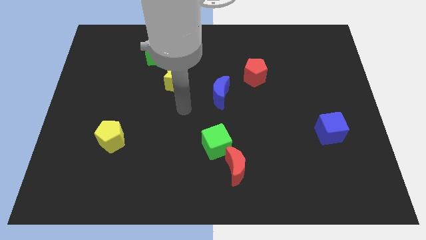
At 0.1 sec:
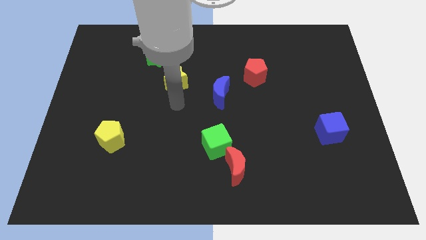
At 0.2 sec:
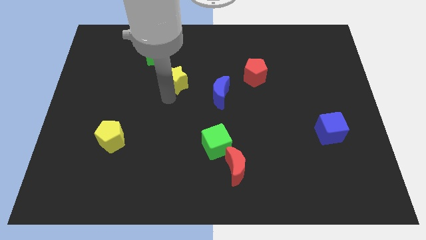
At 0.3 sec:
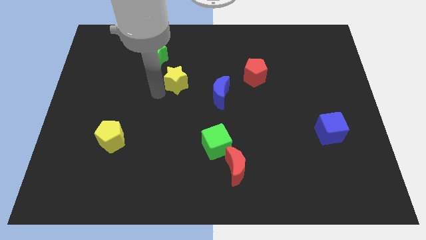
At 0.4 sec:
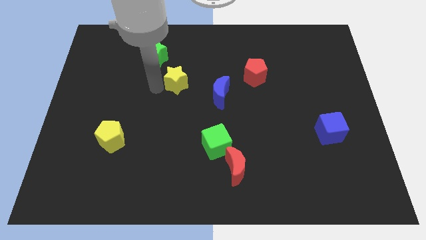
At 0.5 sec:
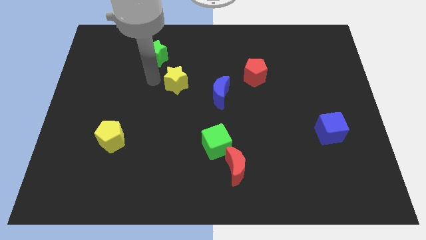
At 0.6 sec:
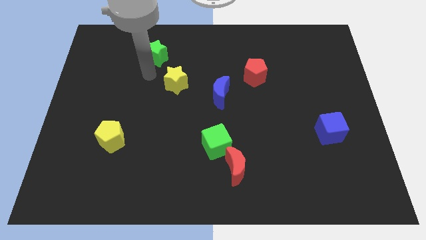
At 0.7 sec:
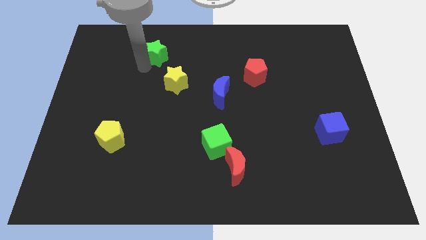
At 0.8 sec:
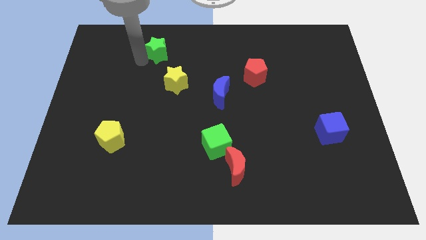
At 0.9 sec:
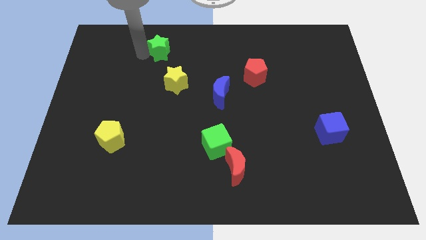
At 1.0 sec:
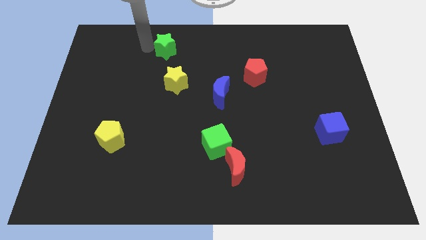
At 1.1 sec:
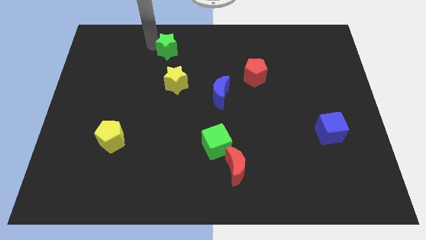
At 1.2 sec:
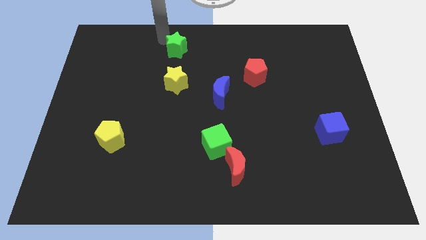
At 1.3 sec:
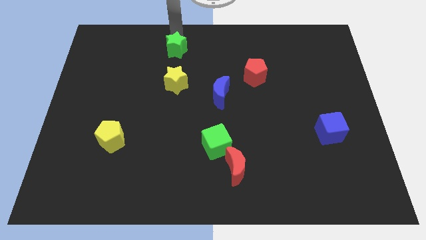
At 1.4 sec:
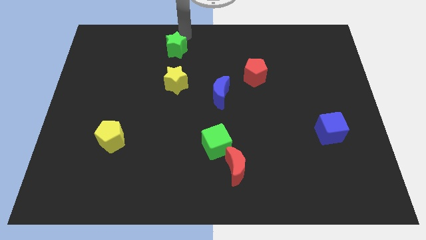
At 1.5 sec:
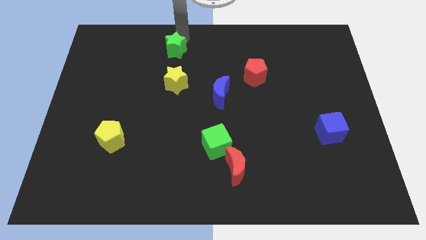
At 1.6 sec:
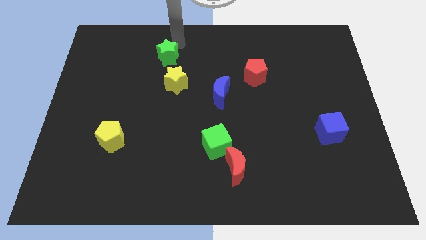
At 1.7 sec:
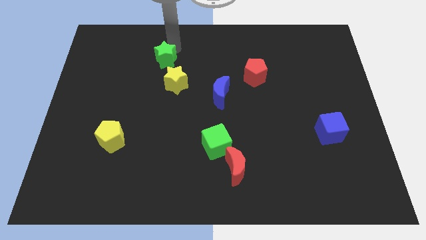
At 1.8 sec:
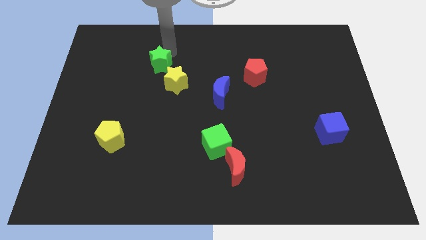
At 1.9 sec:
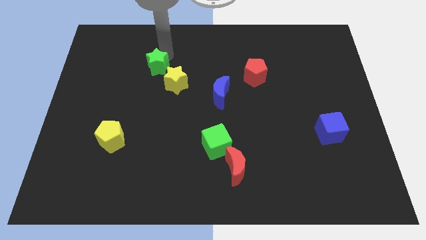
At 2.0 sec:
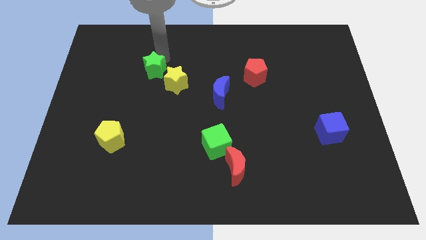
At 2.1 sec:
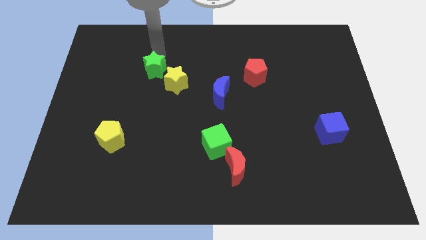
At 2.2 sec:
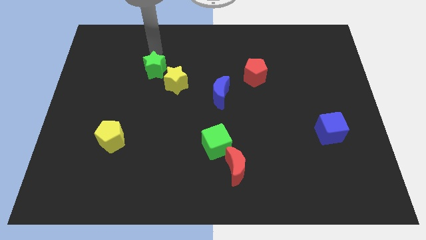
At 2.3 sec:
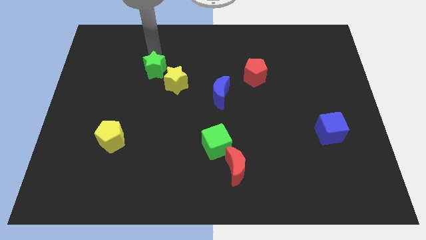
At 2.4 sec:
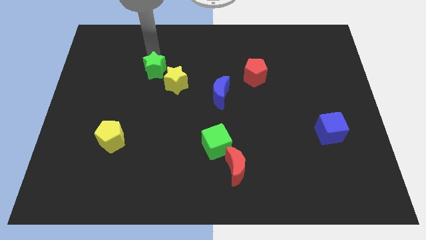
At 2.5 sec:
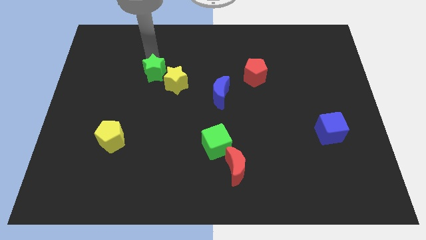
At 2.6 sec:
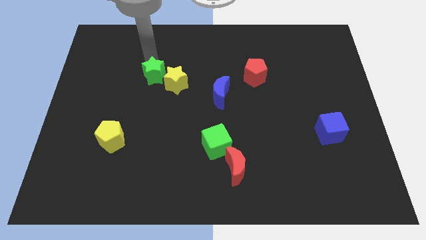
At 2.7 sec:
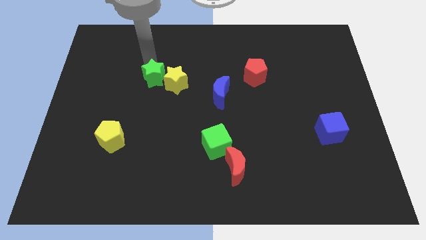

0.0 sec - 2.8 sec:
slightly push the green star downwards

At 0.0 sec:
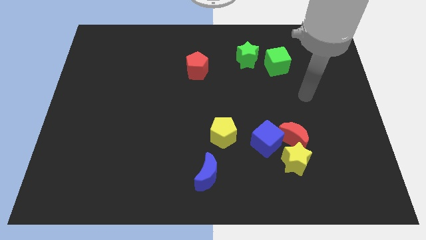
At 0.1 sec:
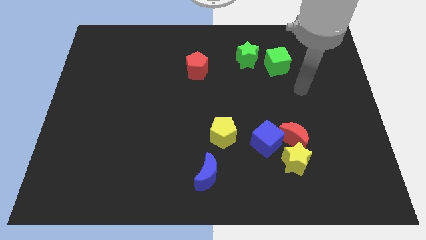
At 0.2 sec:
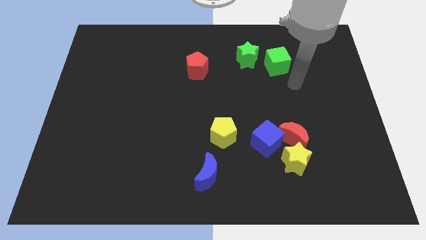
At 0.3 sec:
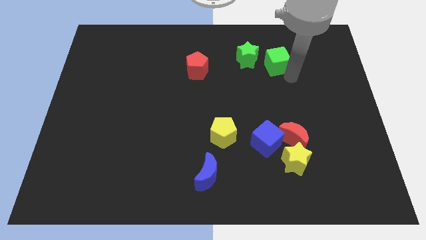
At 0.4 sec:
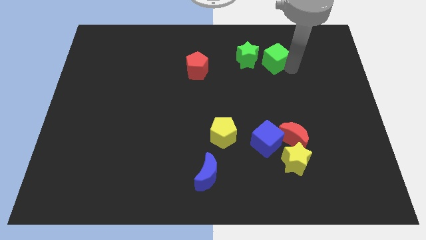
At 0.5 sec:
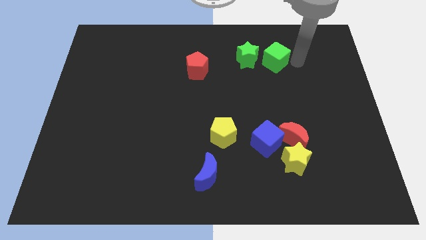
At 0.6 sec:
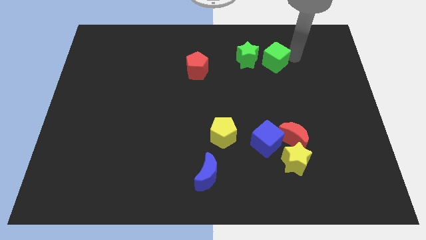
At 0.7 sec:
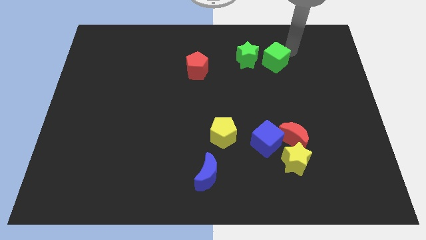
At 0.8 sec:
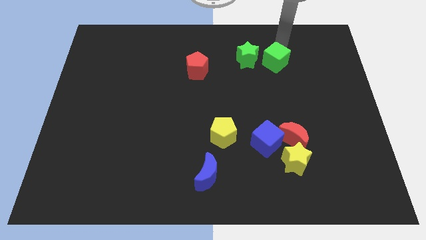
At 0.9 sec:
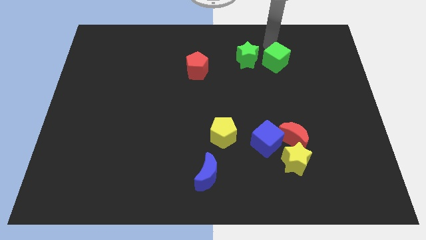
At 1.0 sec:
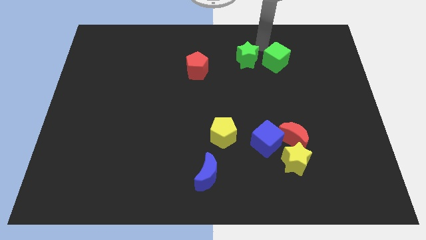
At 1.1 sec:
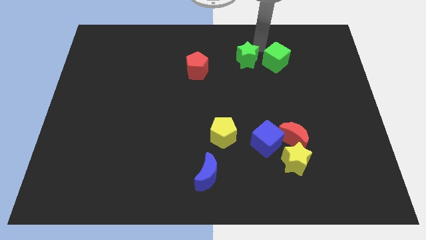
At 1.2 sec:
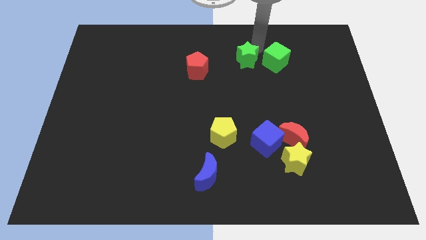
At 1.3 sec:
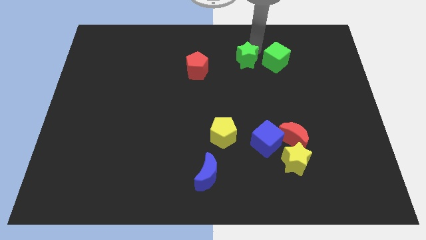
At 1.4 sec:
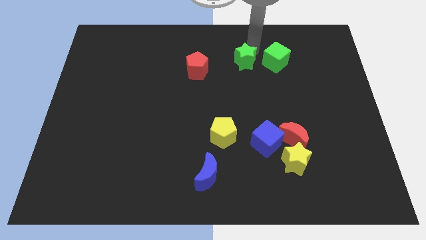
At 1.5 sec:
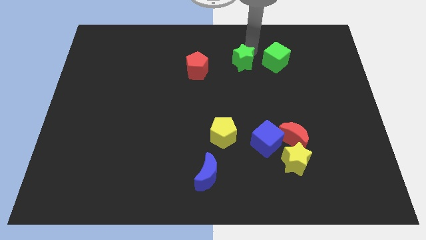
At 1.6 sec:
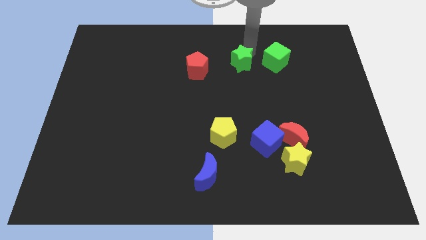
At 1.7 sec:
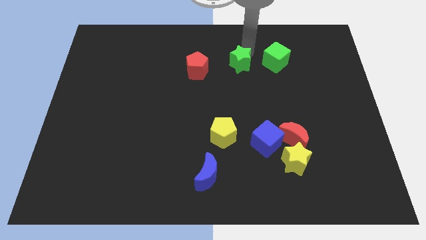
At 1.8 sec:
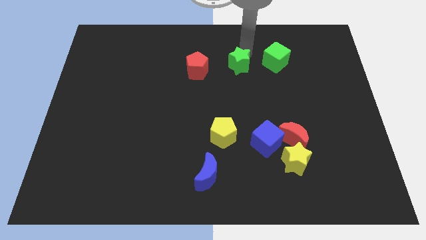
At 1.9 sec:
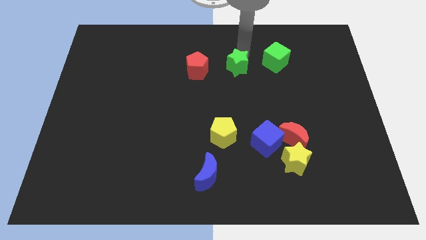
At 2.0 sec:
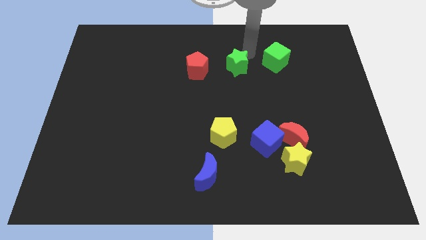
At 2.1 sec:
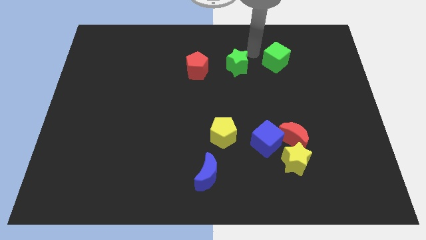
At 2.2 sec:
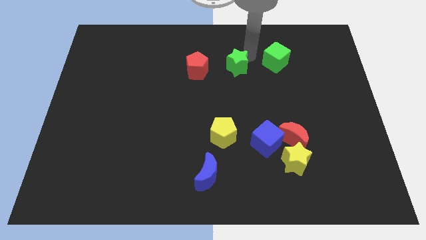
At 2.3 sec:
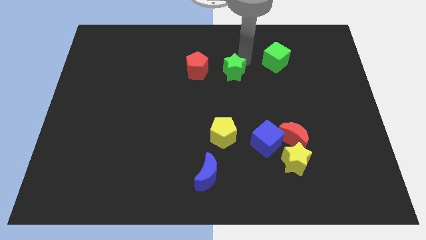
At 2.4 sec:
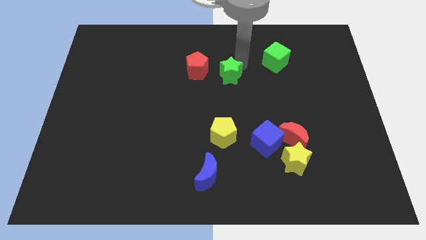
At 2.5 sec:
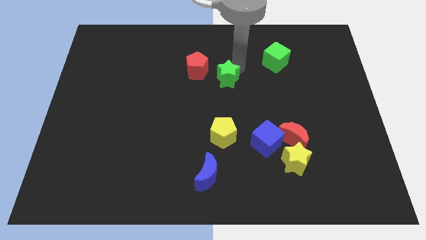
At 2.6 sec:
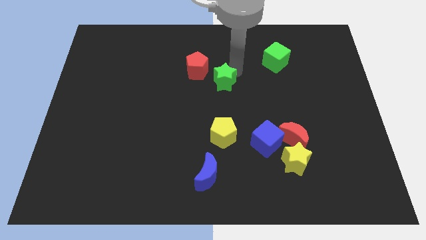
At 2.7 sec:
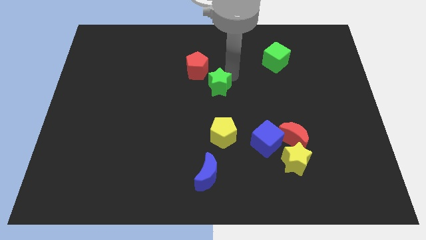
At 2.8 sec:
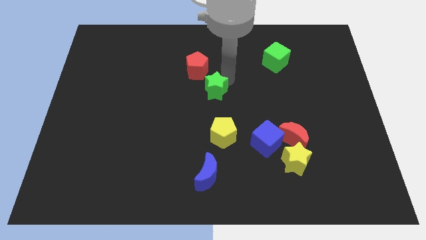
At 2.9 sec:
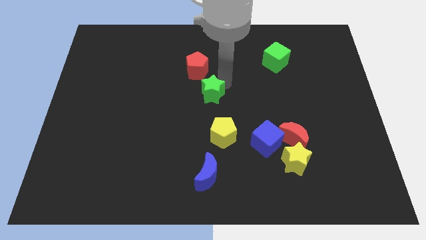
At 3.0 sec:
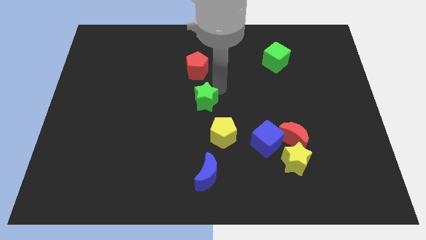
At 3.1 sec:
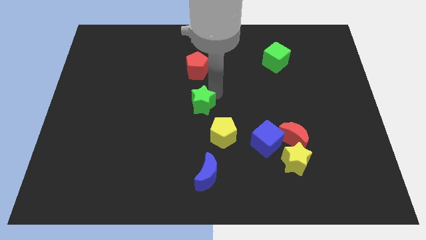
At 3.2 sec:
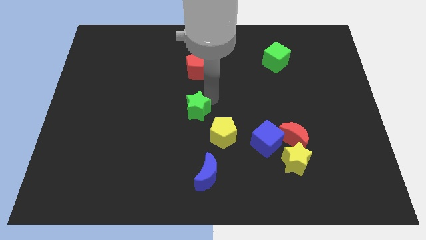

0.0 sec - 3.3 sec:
move the green star down and to the left

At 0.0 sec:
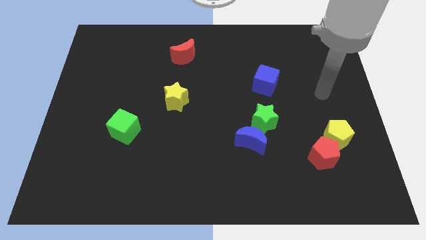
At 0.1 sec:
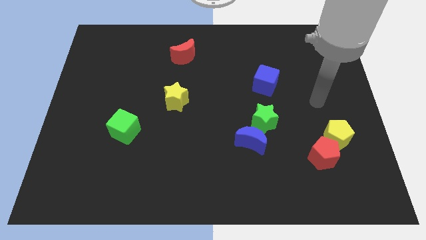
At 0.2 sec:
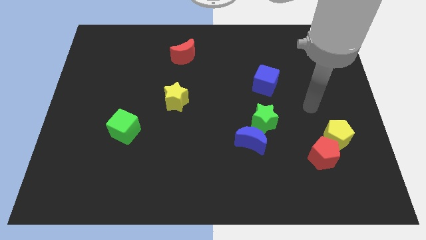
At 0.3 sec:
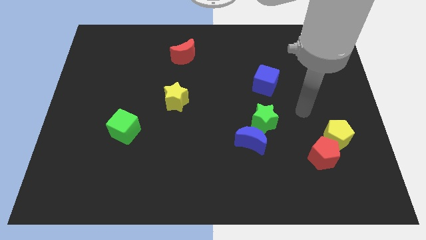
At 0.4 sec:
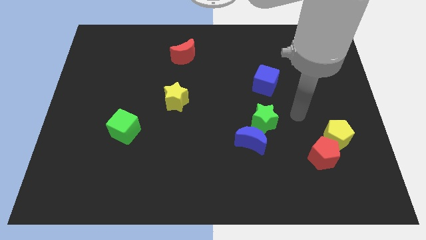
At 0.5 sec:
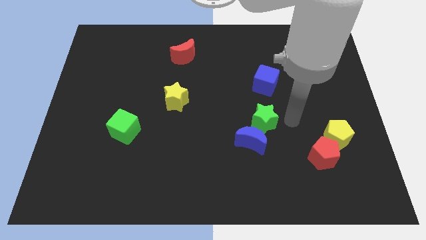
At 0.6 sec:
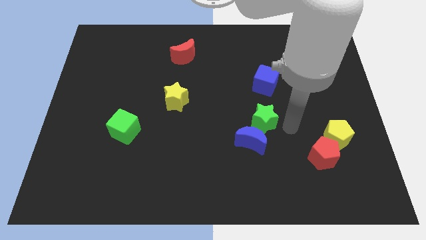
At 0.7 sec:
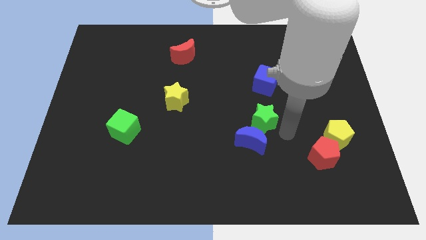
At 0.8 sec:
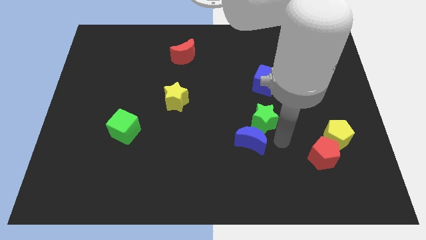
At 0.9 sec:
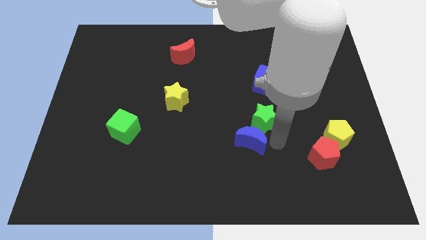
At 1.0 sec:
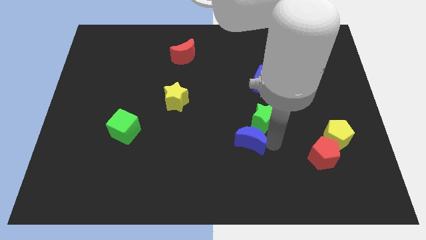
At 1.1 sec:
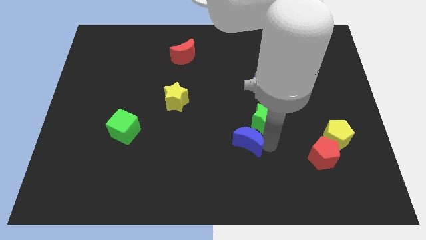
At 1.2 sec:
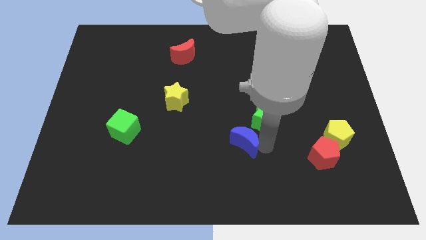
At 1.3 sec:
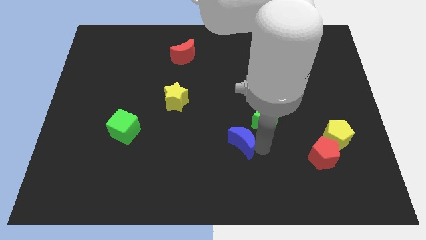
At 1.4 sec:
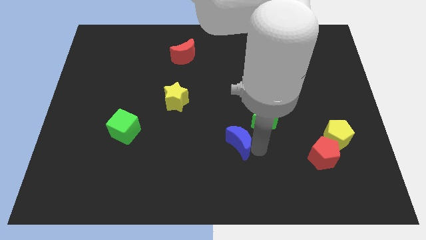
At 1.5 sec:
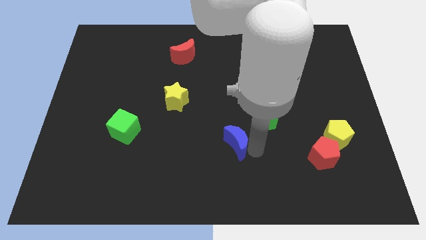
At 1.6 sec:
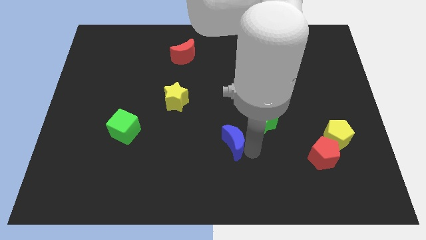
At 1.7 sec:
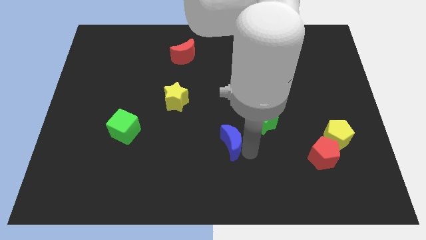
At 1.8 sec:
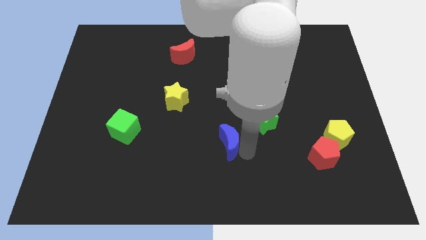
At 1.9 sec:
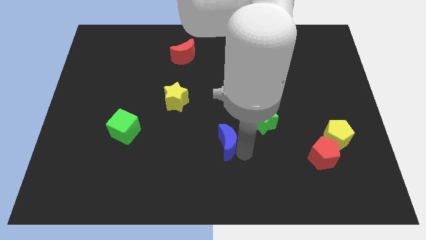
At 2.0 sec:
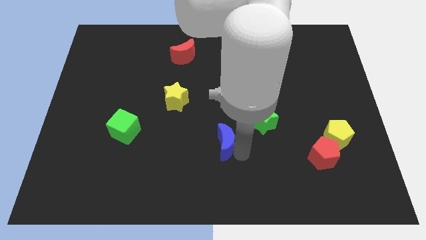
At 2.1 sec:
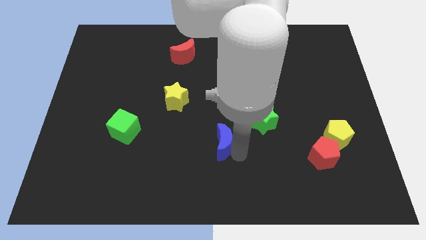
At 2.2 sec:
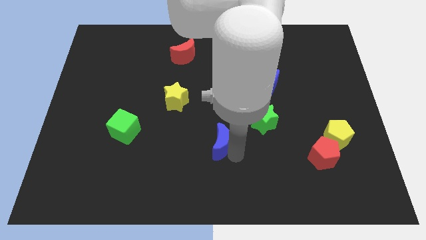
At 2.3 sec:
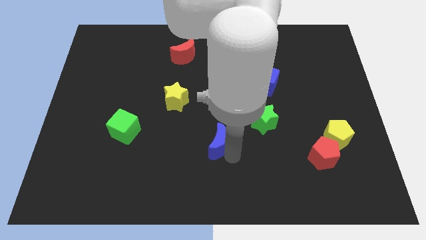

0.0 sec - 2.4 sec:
slightly slide the blue moon to the left
